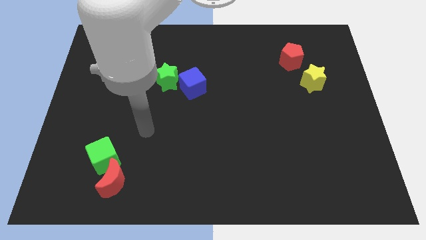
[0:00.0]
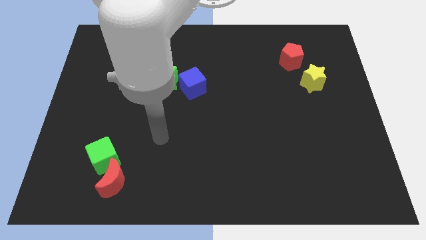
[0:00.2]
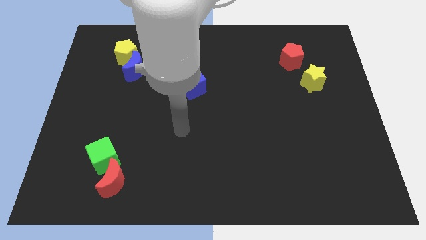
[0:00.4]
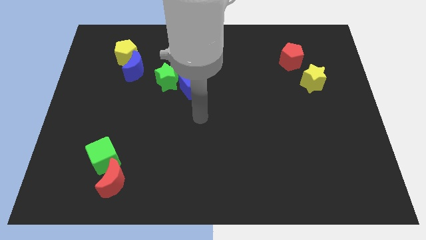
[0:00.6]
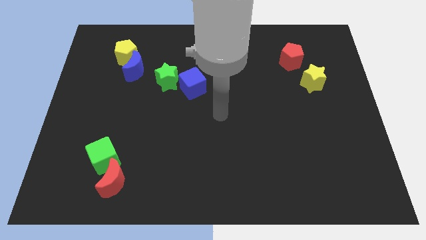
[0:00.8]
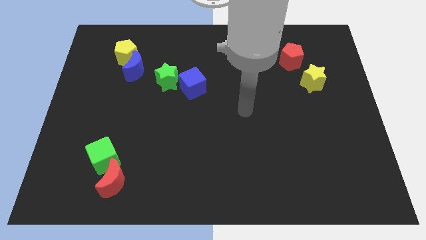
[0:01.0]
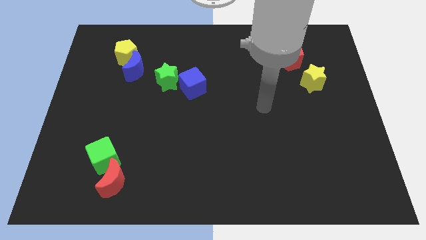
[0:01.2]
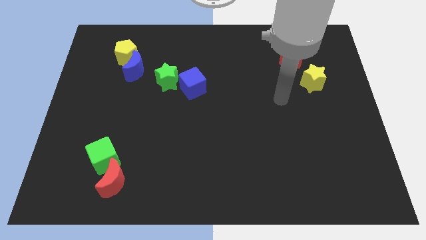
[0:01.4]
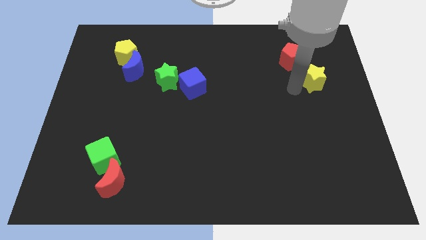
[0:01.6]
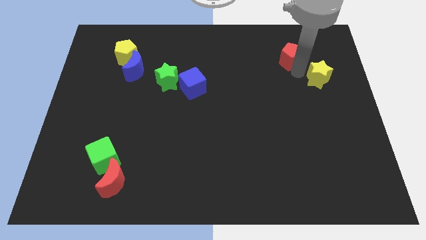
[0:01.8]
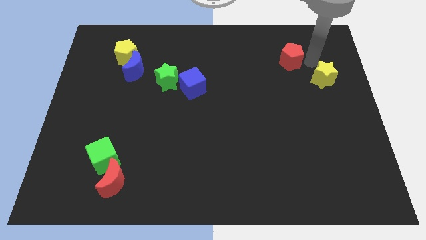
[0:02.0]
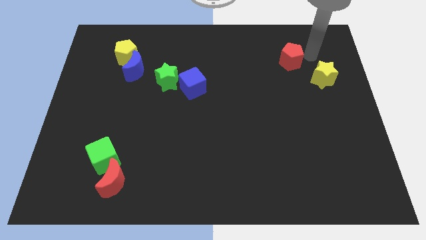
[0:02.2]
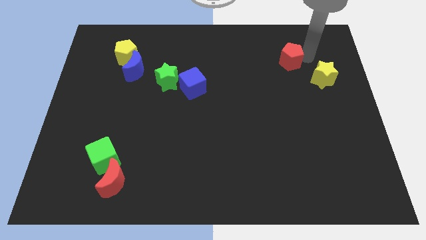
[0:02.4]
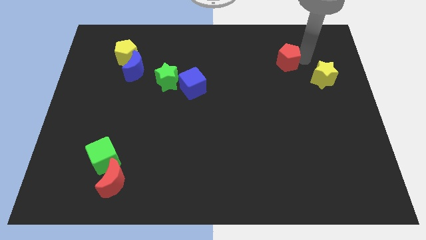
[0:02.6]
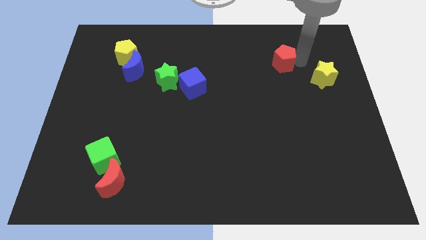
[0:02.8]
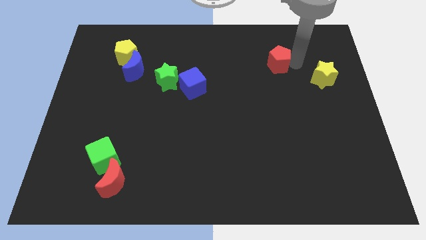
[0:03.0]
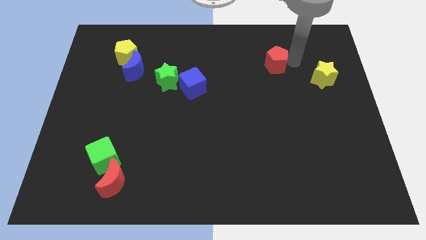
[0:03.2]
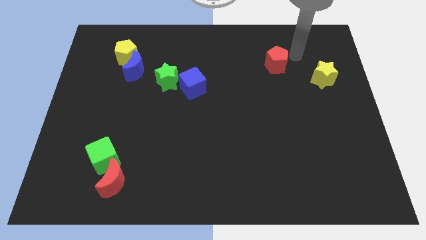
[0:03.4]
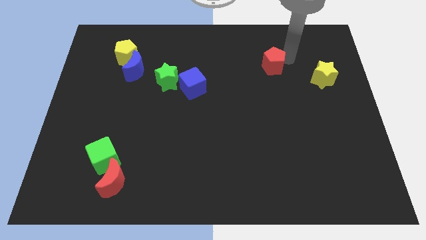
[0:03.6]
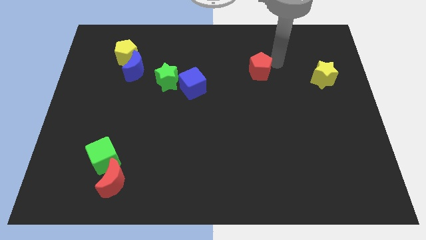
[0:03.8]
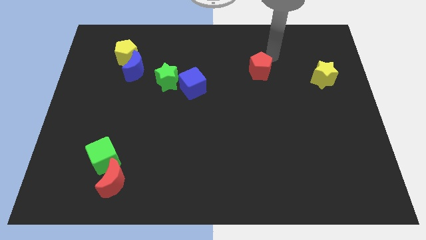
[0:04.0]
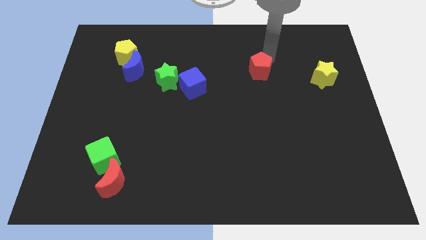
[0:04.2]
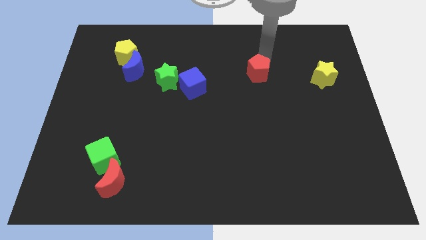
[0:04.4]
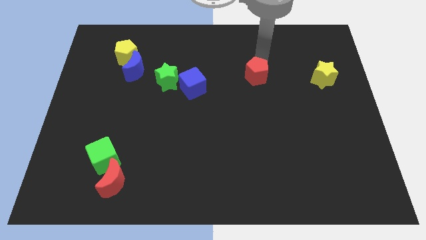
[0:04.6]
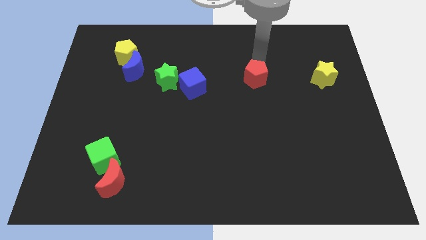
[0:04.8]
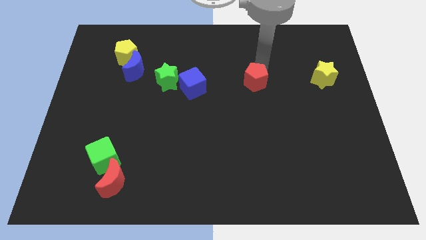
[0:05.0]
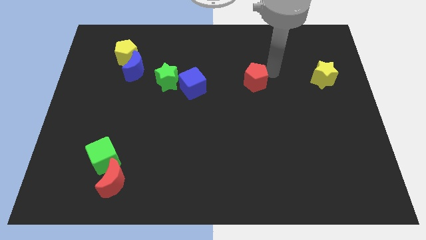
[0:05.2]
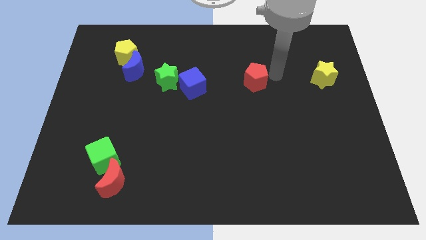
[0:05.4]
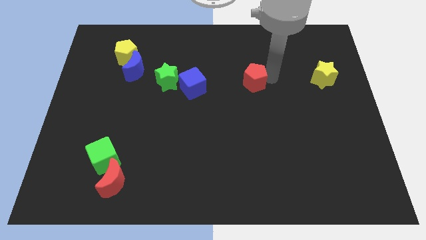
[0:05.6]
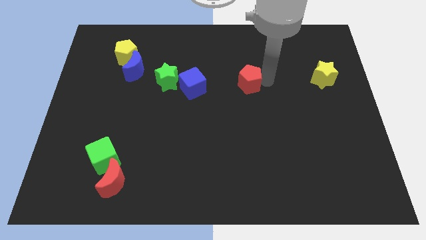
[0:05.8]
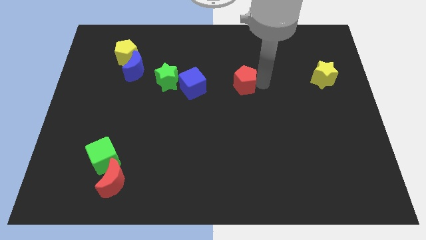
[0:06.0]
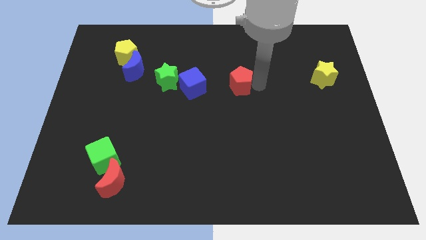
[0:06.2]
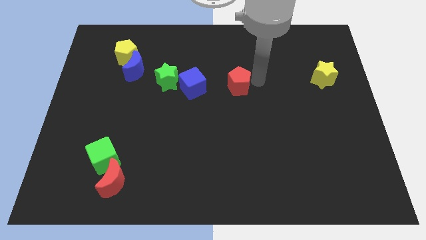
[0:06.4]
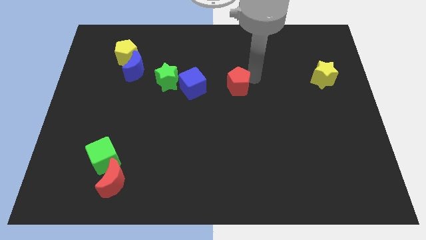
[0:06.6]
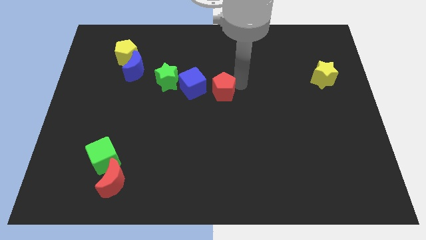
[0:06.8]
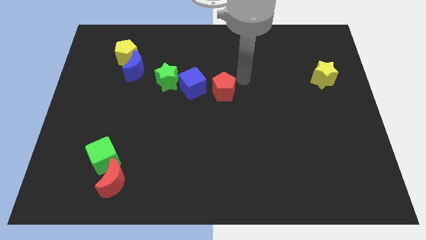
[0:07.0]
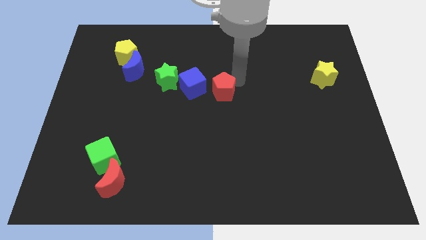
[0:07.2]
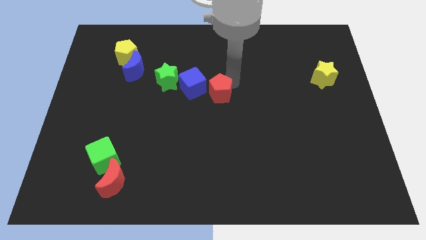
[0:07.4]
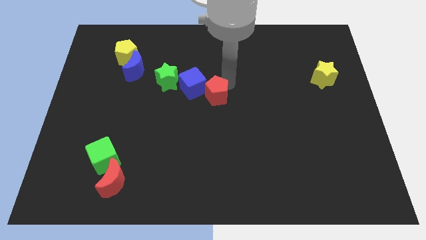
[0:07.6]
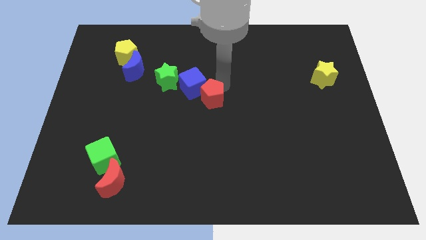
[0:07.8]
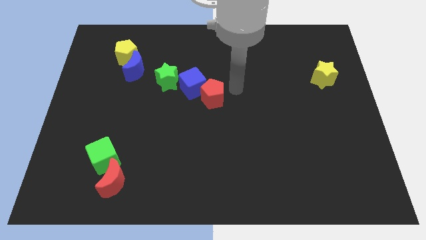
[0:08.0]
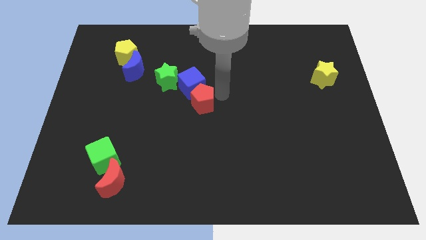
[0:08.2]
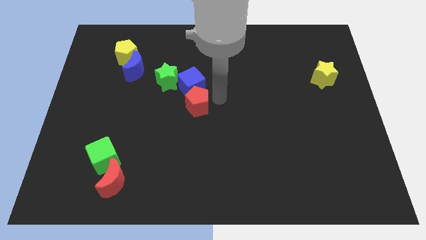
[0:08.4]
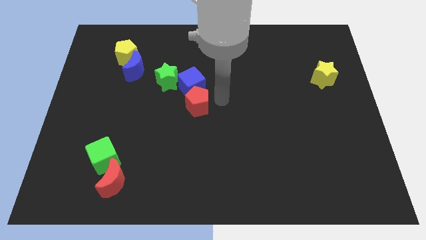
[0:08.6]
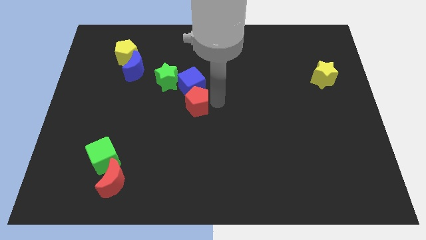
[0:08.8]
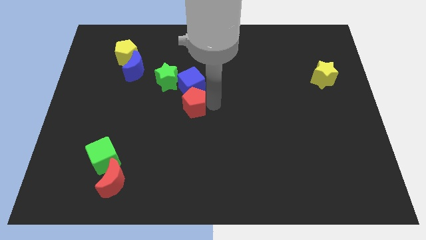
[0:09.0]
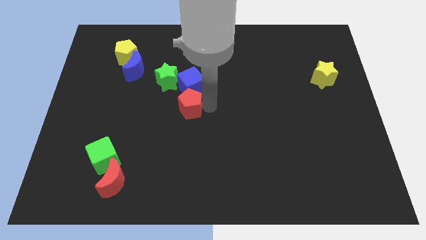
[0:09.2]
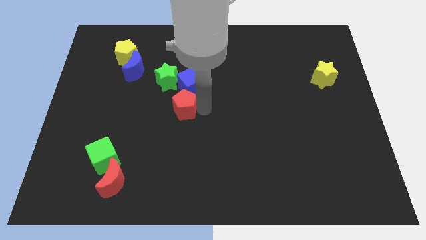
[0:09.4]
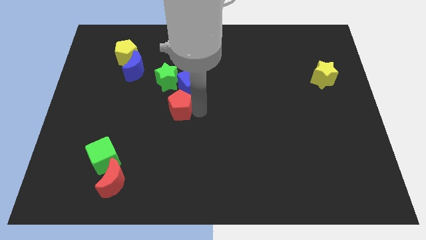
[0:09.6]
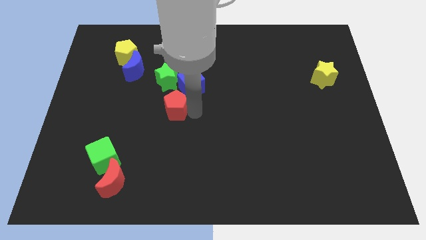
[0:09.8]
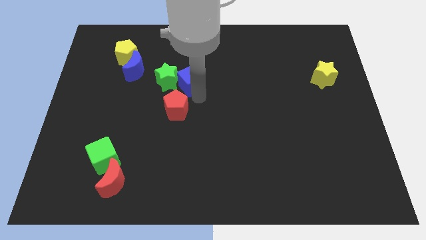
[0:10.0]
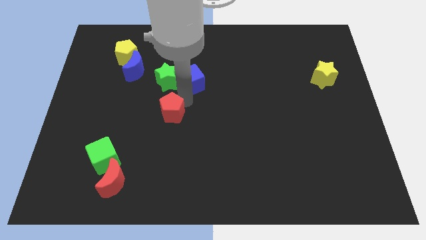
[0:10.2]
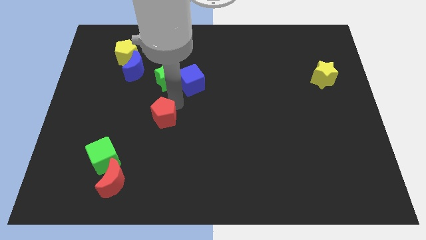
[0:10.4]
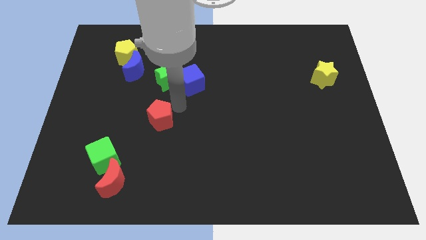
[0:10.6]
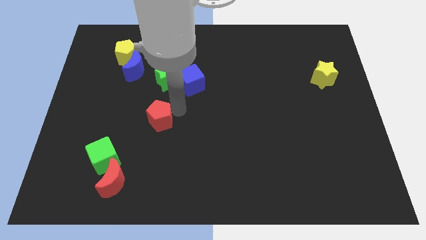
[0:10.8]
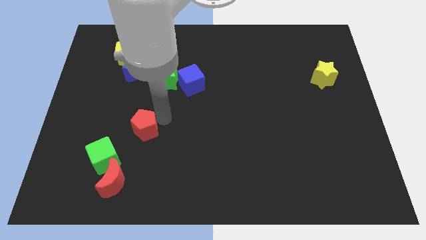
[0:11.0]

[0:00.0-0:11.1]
slide the red pentagon above the red moon

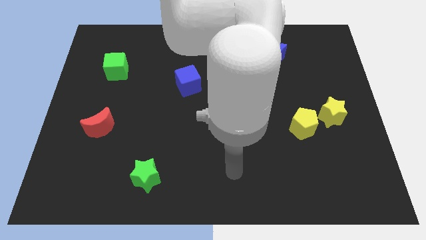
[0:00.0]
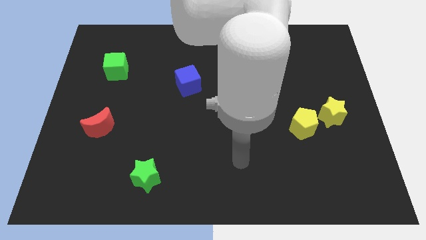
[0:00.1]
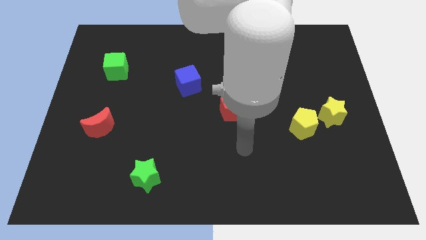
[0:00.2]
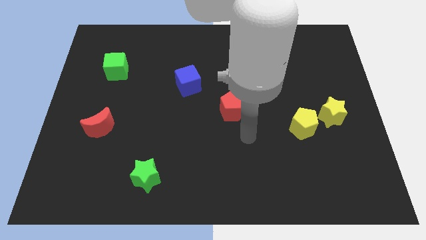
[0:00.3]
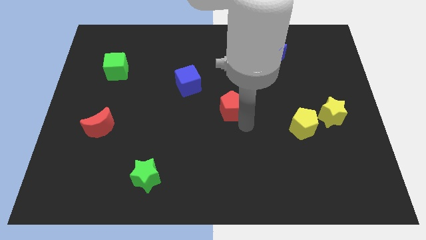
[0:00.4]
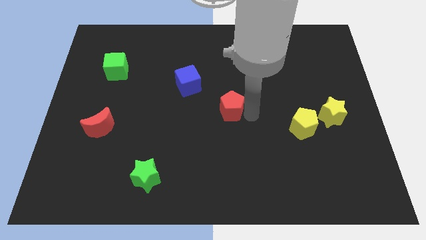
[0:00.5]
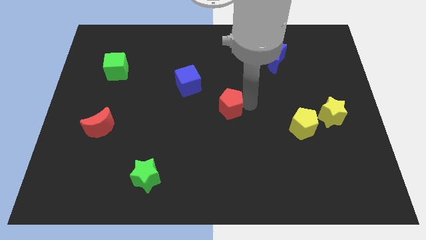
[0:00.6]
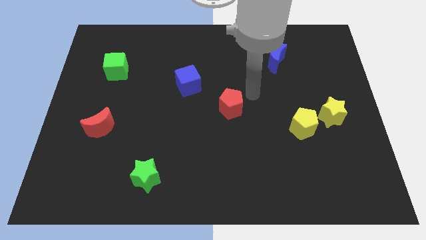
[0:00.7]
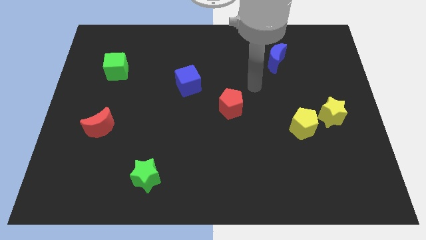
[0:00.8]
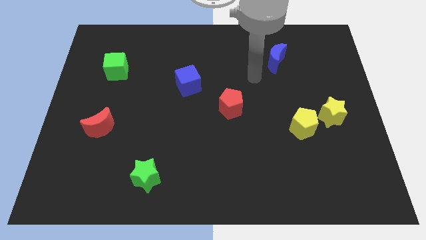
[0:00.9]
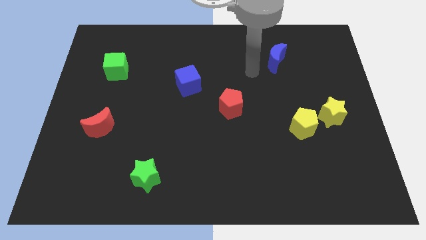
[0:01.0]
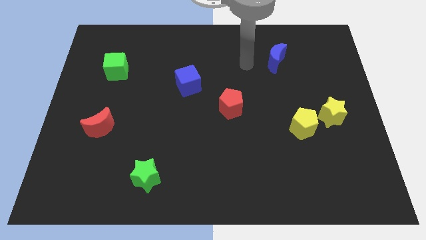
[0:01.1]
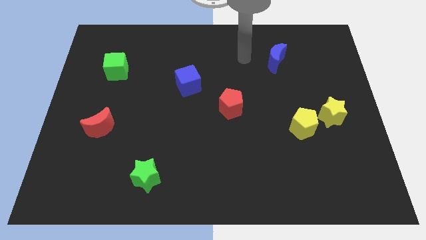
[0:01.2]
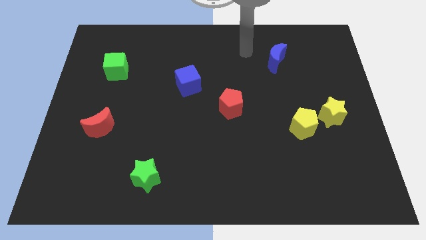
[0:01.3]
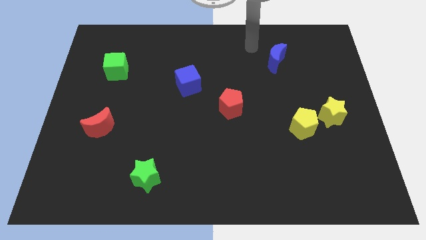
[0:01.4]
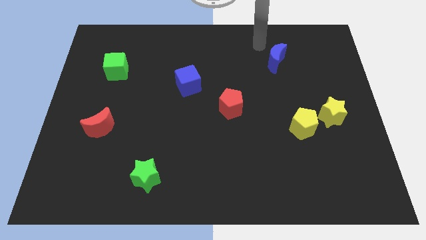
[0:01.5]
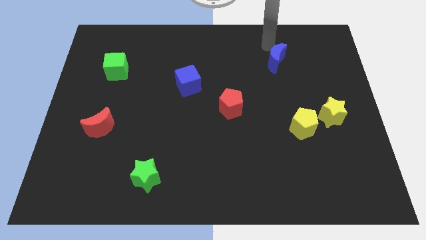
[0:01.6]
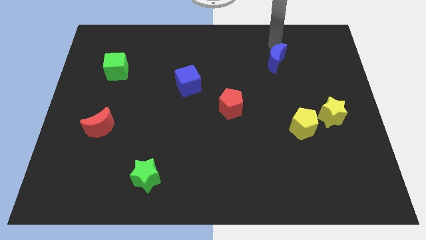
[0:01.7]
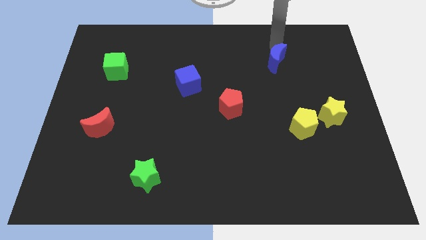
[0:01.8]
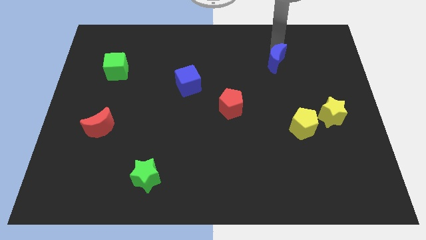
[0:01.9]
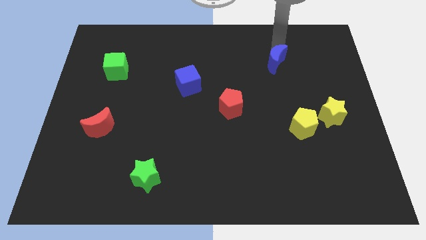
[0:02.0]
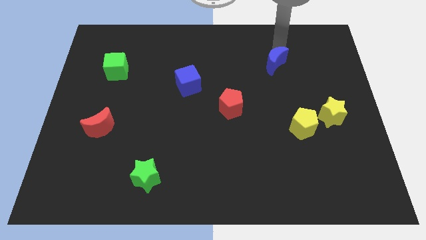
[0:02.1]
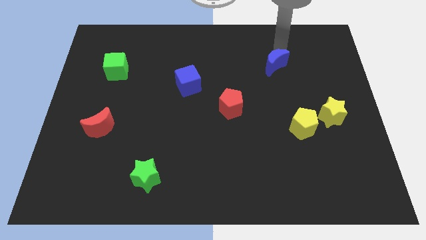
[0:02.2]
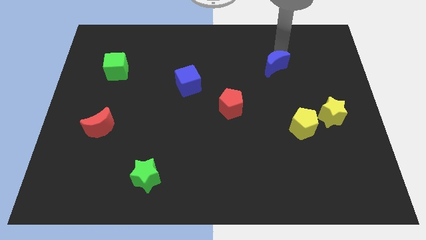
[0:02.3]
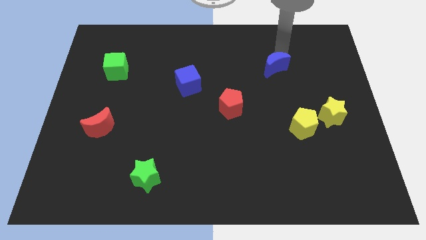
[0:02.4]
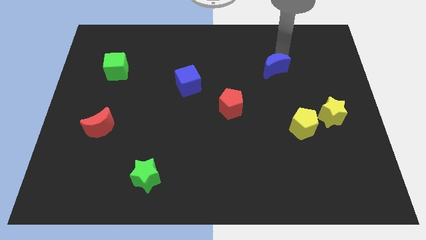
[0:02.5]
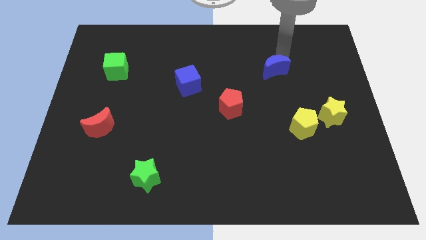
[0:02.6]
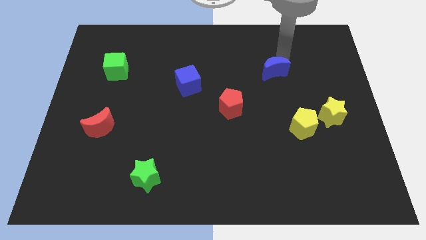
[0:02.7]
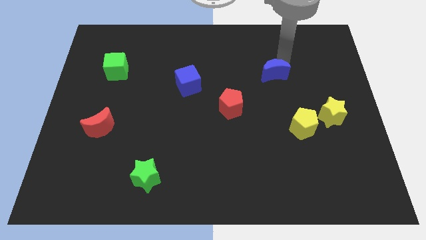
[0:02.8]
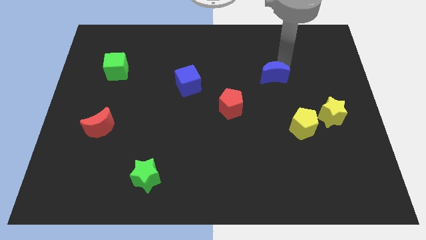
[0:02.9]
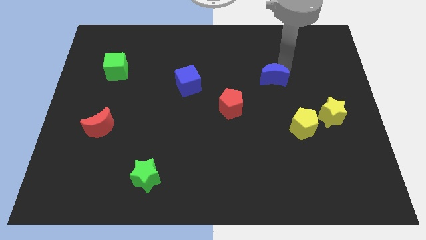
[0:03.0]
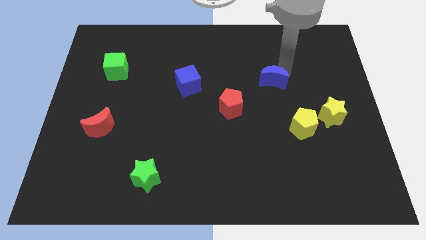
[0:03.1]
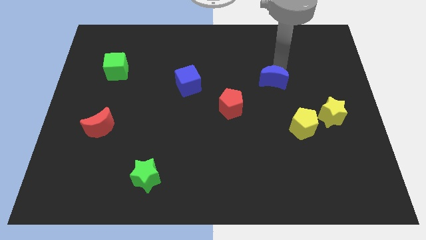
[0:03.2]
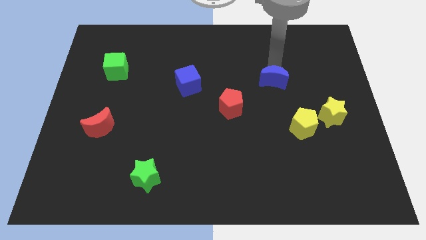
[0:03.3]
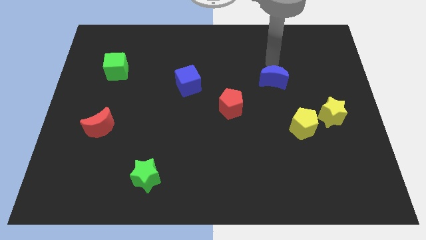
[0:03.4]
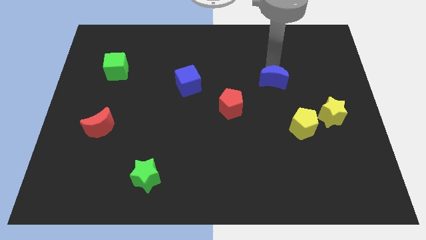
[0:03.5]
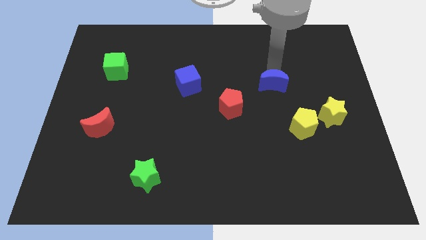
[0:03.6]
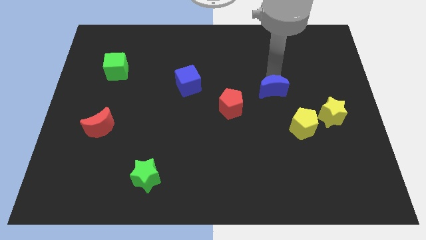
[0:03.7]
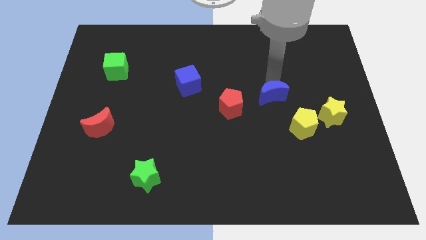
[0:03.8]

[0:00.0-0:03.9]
move the blue moon diagonally up and to the left of the yellow pentagon
